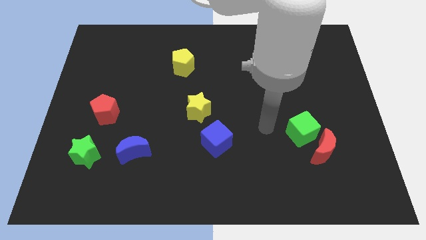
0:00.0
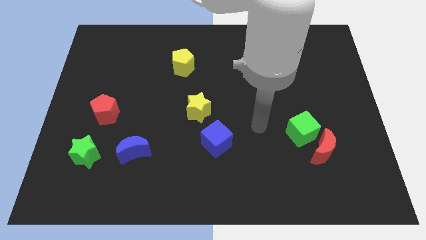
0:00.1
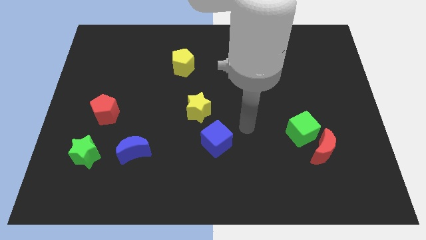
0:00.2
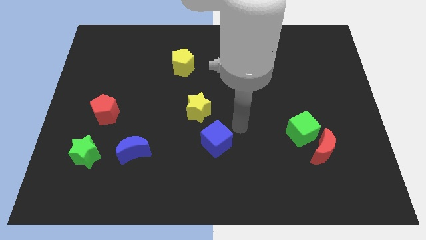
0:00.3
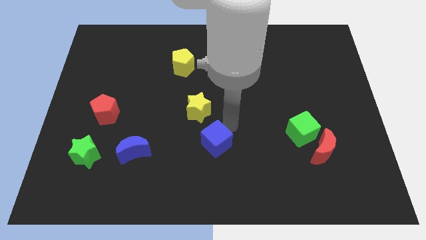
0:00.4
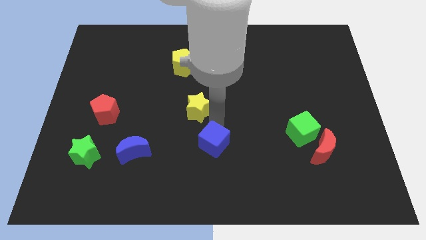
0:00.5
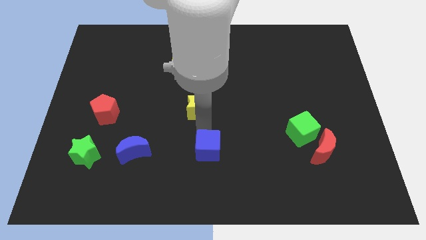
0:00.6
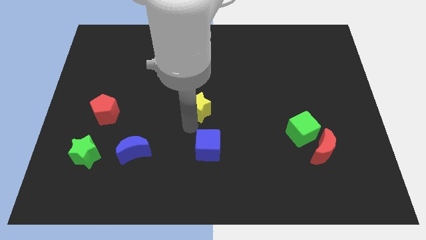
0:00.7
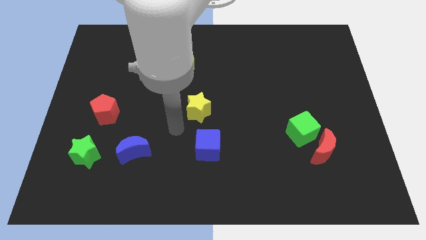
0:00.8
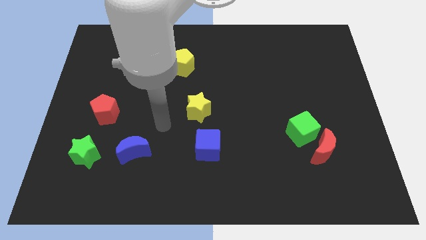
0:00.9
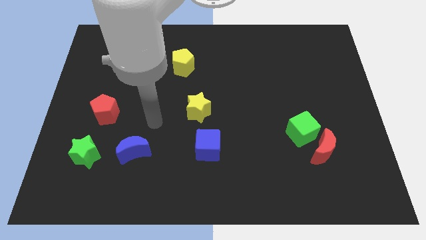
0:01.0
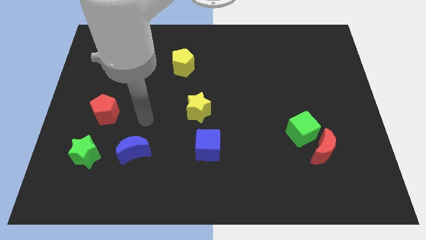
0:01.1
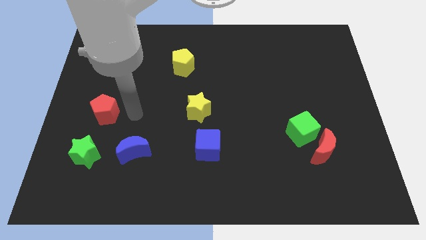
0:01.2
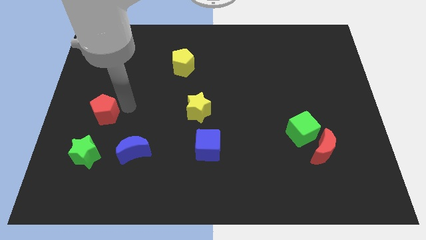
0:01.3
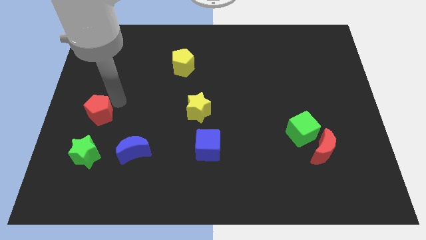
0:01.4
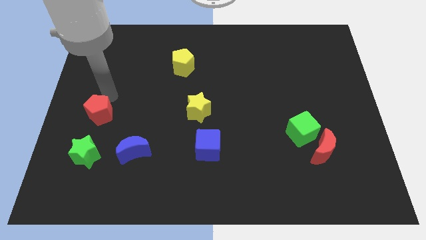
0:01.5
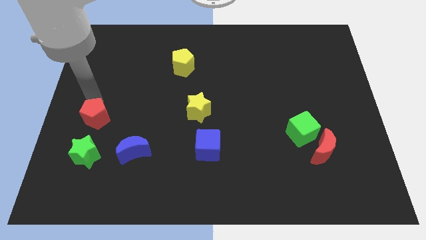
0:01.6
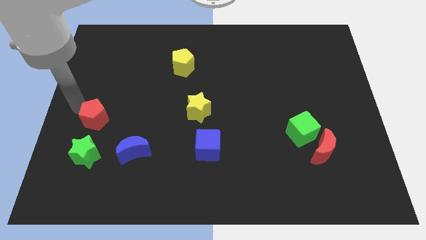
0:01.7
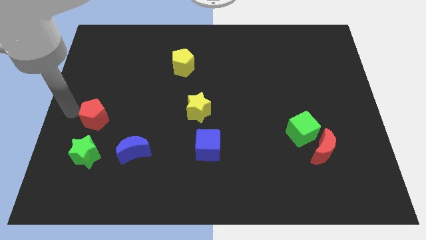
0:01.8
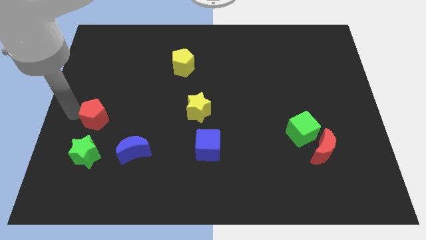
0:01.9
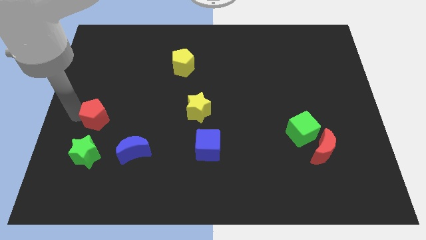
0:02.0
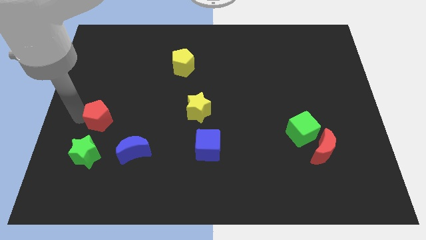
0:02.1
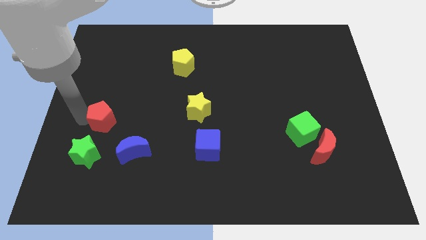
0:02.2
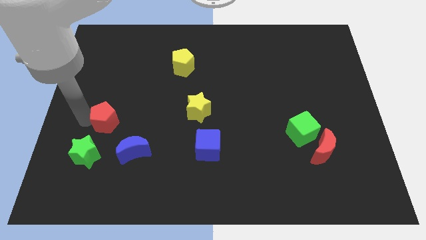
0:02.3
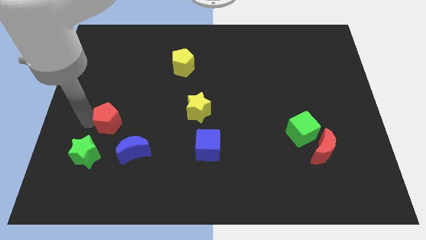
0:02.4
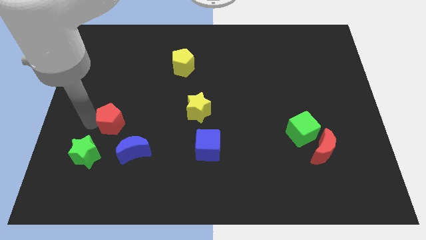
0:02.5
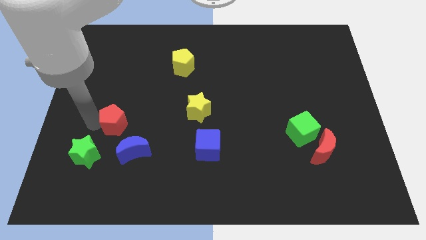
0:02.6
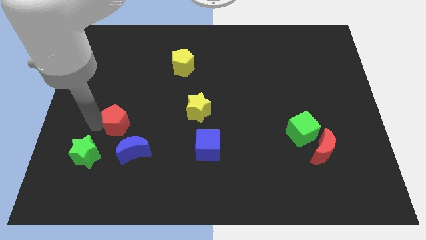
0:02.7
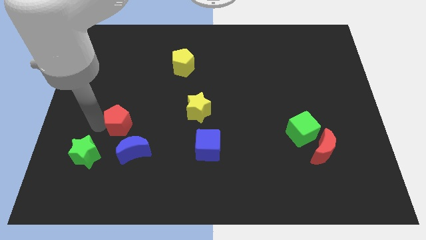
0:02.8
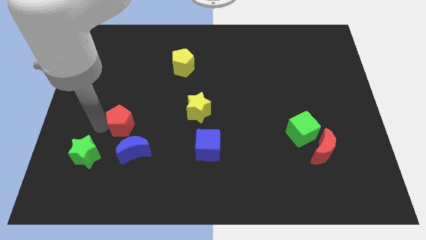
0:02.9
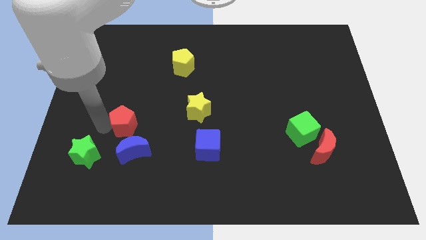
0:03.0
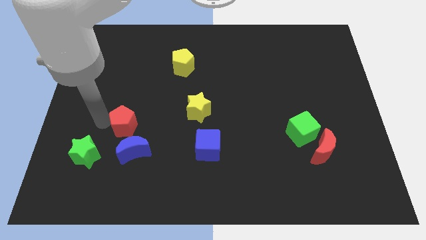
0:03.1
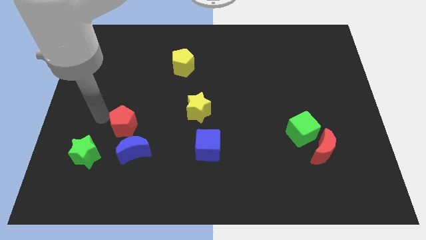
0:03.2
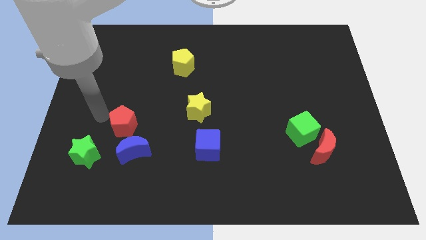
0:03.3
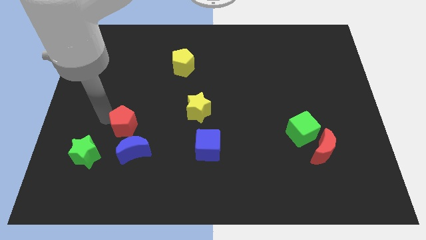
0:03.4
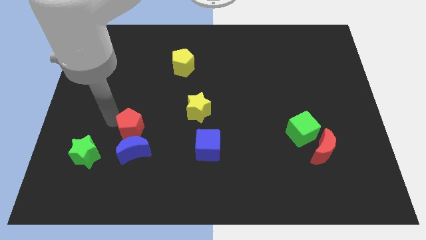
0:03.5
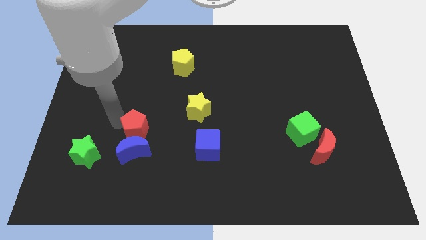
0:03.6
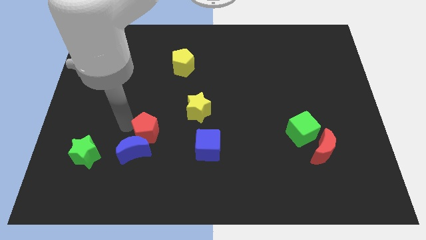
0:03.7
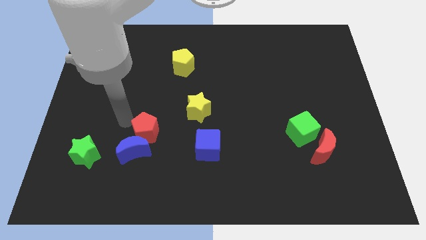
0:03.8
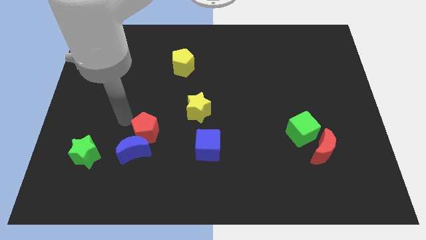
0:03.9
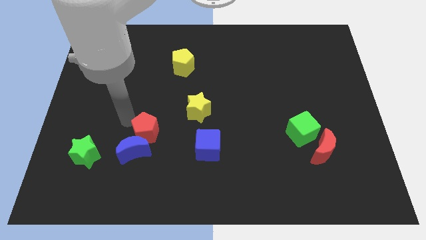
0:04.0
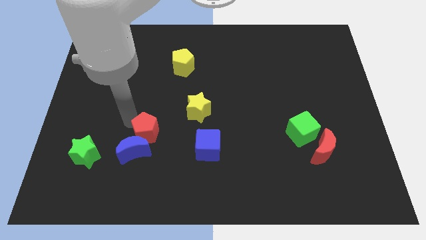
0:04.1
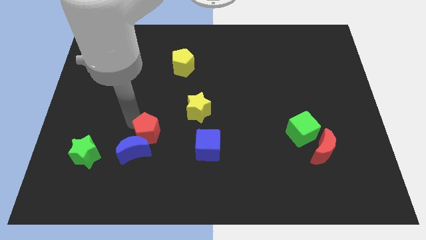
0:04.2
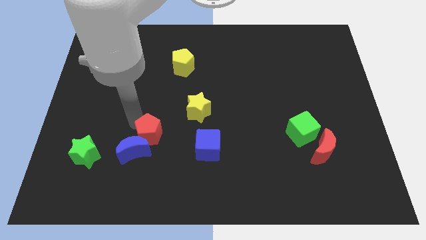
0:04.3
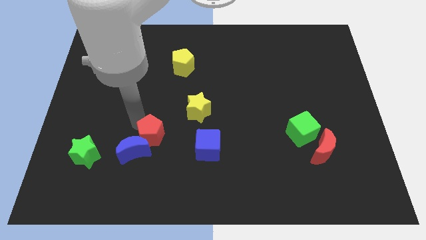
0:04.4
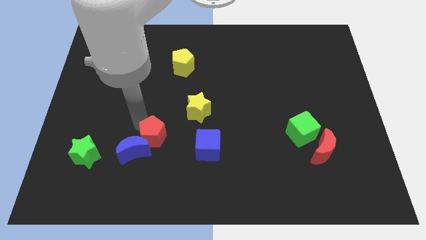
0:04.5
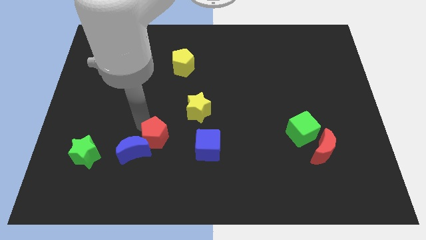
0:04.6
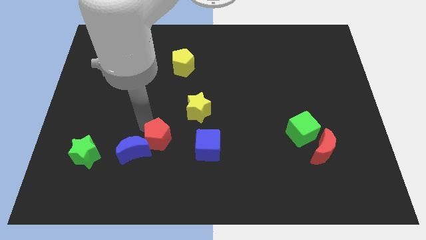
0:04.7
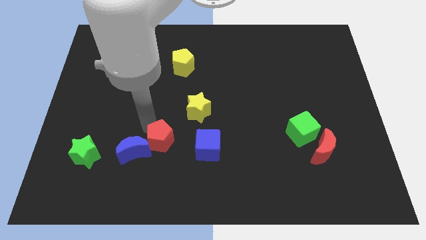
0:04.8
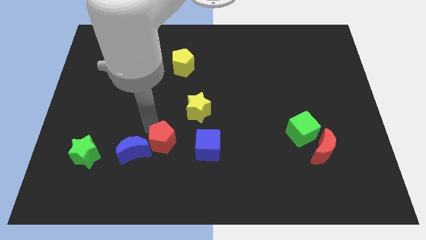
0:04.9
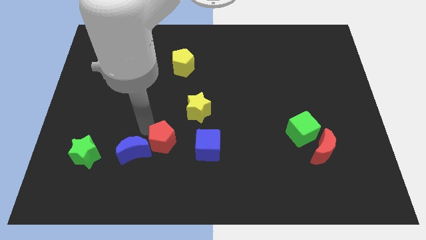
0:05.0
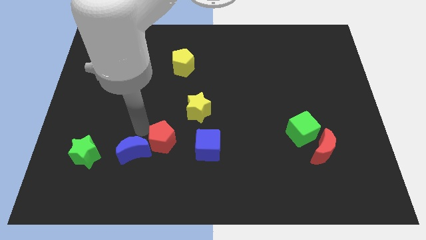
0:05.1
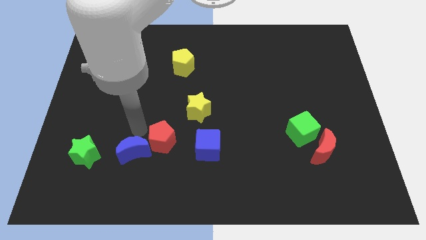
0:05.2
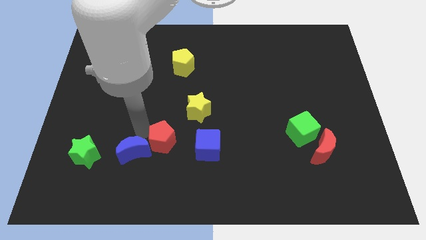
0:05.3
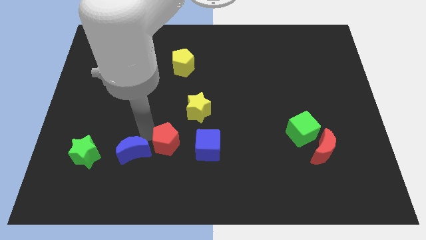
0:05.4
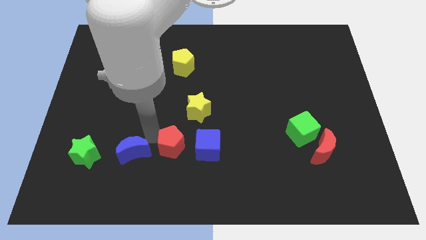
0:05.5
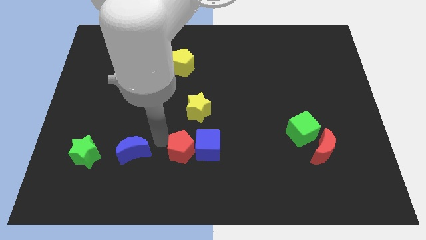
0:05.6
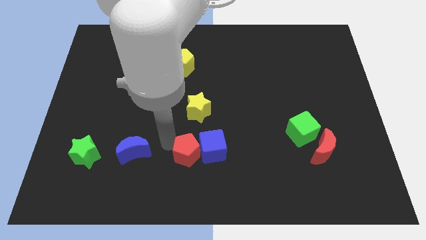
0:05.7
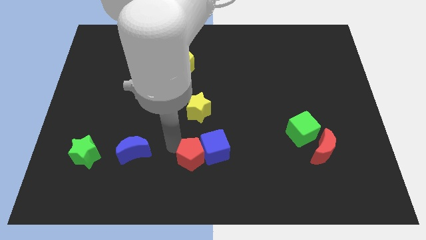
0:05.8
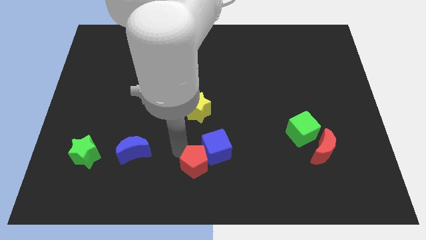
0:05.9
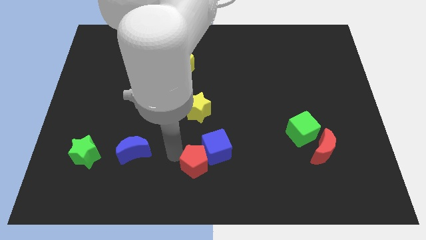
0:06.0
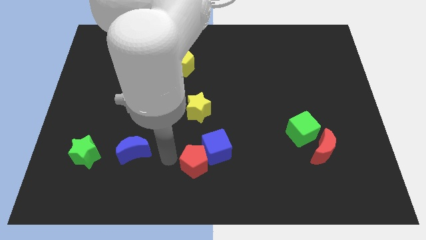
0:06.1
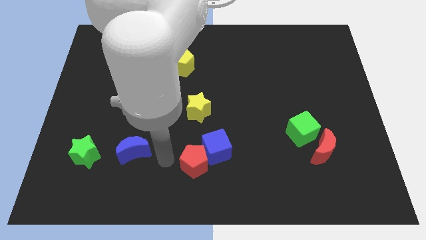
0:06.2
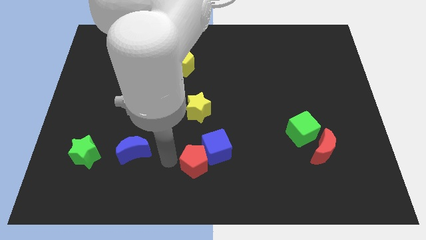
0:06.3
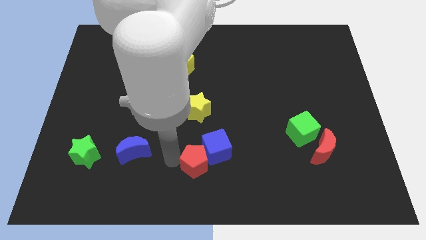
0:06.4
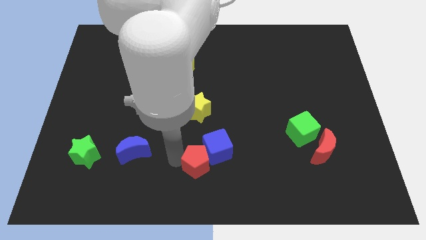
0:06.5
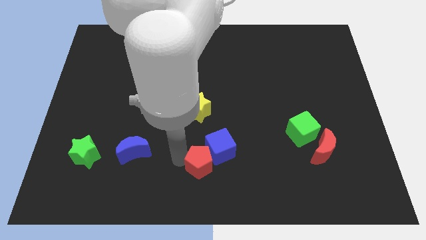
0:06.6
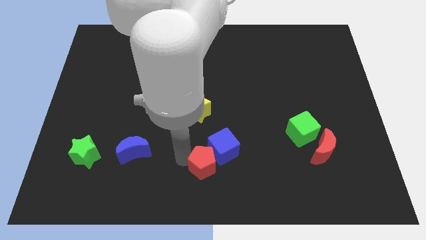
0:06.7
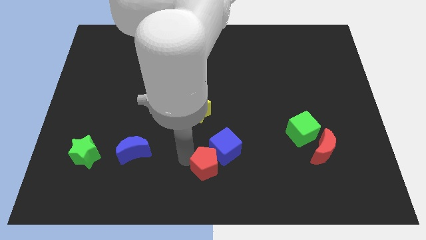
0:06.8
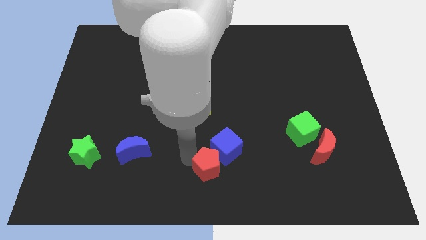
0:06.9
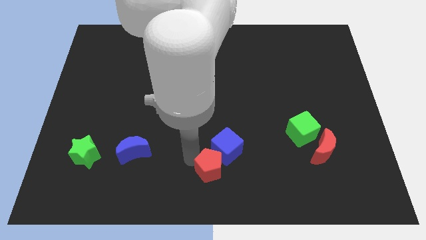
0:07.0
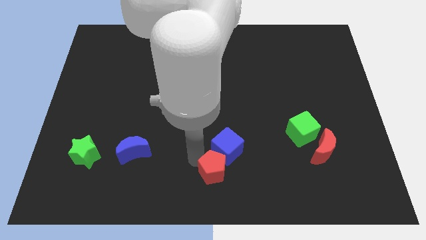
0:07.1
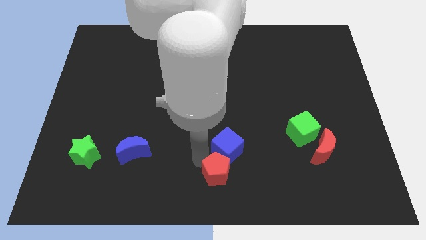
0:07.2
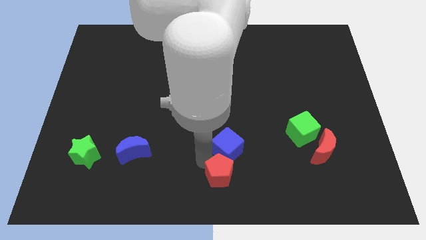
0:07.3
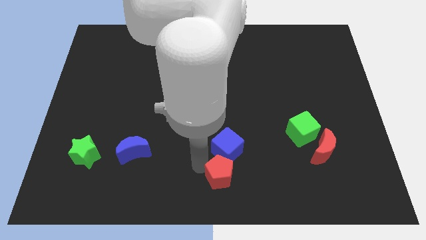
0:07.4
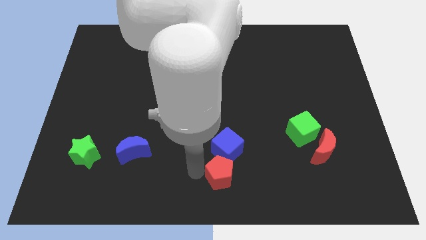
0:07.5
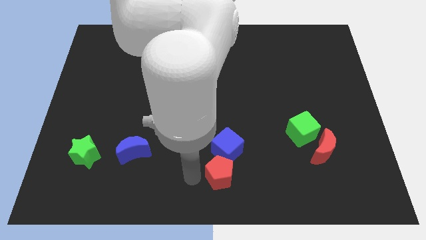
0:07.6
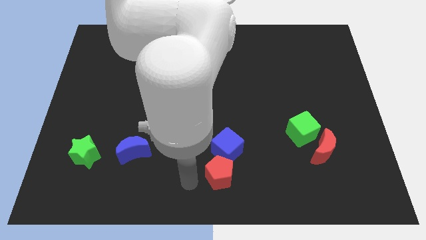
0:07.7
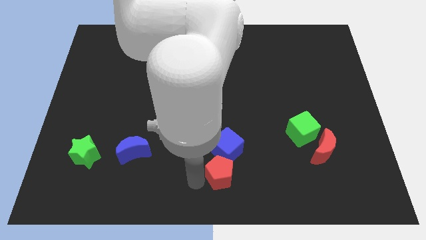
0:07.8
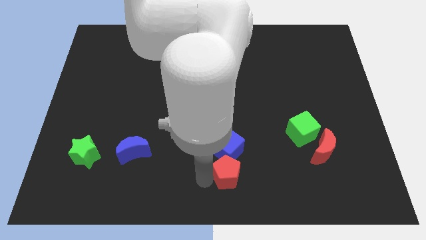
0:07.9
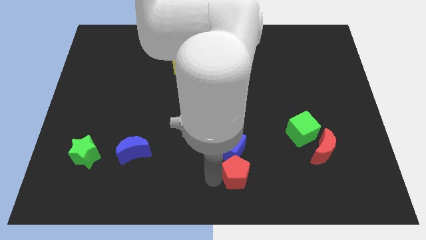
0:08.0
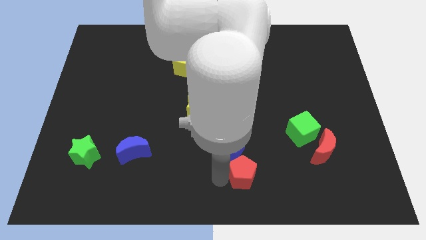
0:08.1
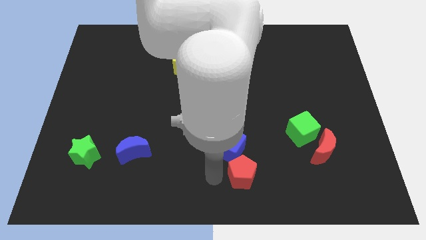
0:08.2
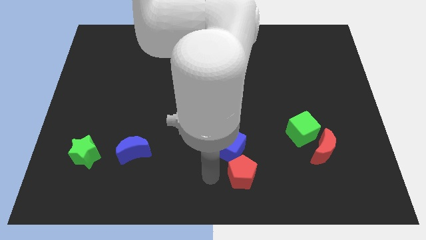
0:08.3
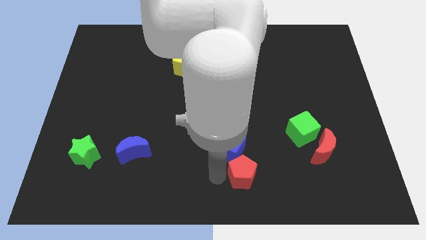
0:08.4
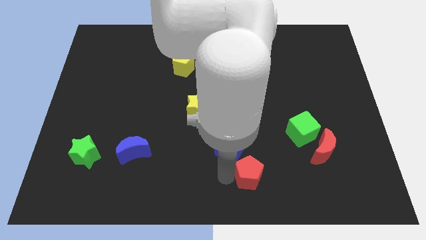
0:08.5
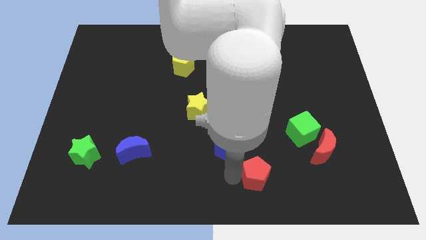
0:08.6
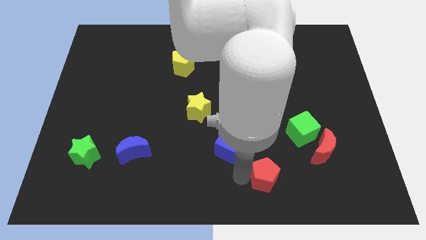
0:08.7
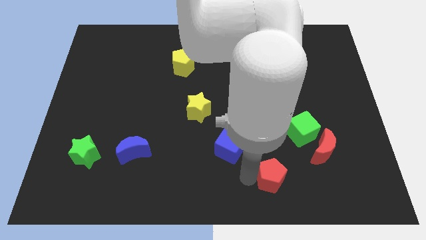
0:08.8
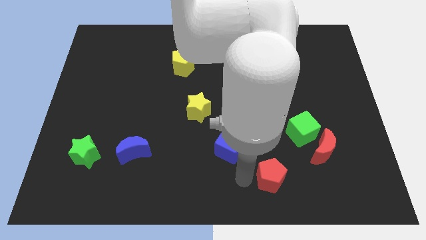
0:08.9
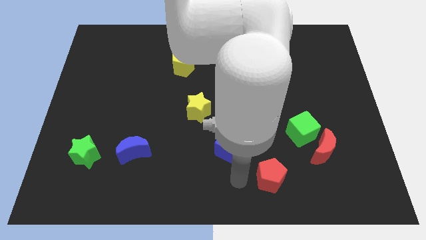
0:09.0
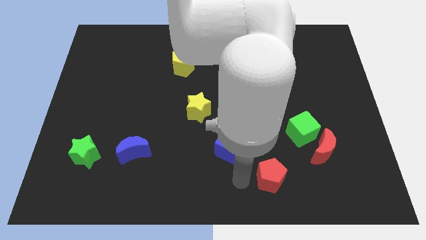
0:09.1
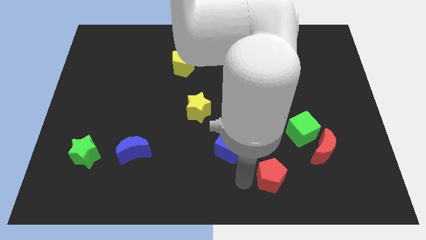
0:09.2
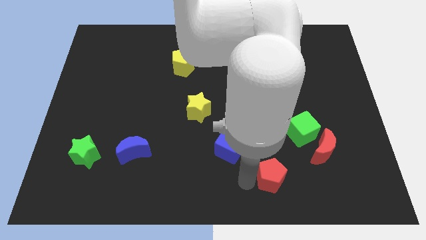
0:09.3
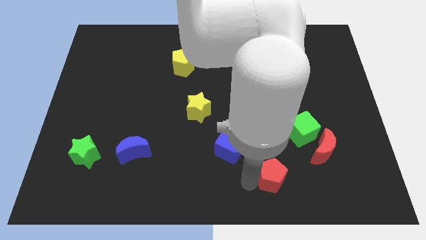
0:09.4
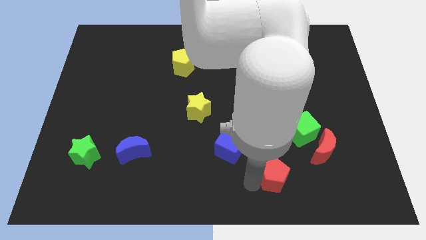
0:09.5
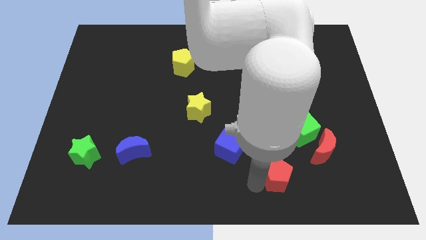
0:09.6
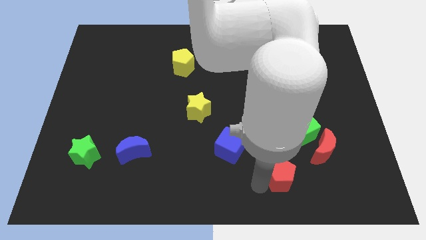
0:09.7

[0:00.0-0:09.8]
move the red pentagon to the bottom left of the red moon
